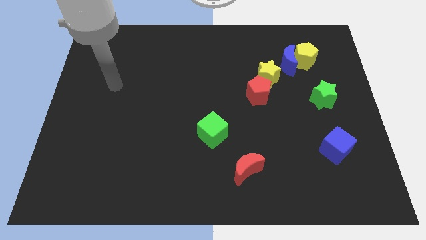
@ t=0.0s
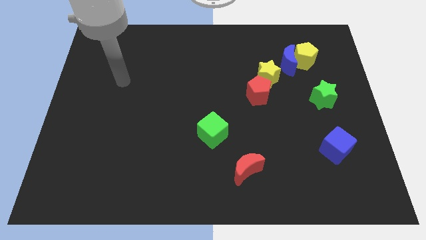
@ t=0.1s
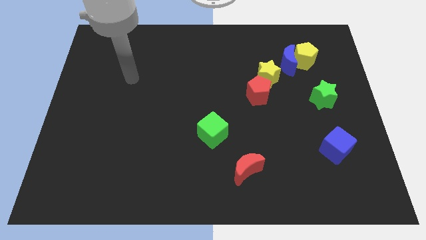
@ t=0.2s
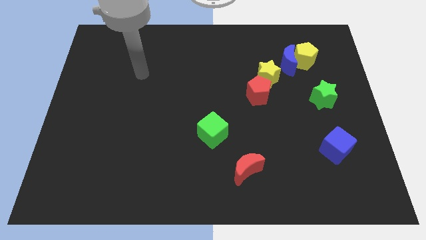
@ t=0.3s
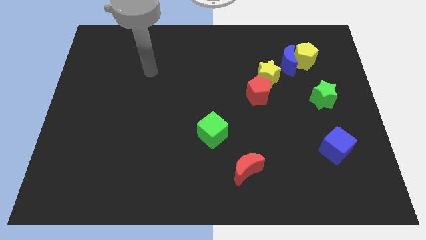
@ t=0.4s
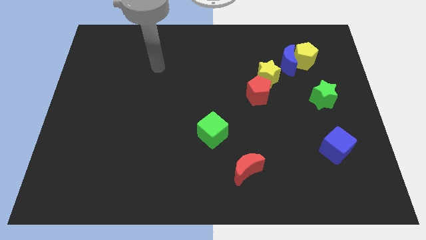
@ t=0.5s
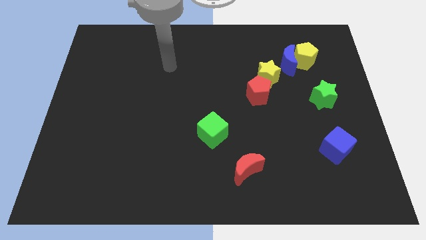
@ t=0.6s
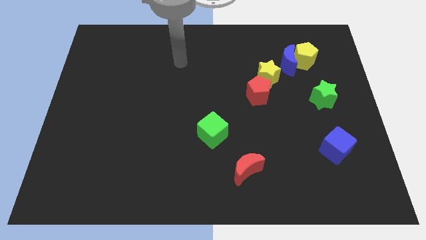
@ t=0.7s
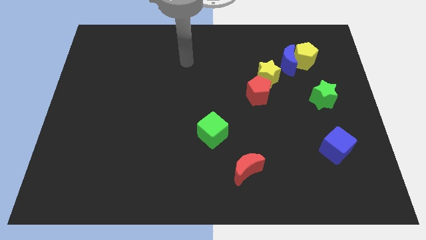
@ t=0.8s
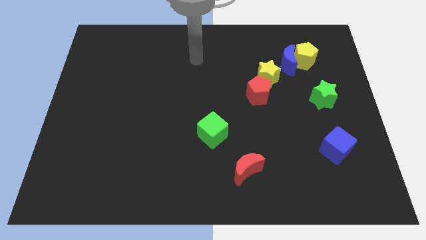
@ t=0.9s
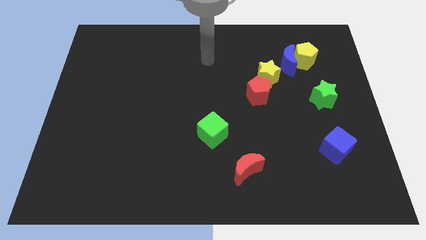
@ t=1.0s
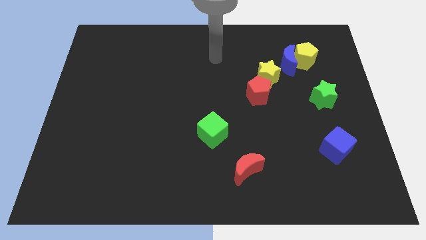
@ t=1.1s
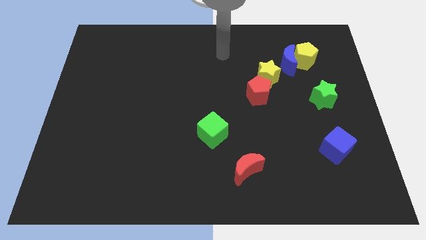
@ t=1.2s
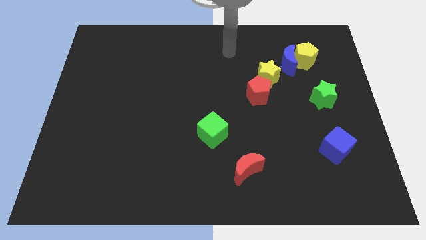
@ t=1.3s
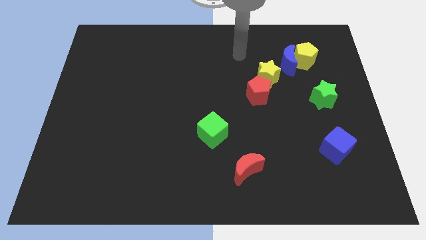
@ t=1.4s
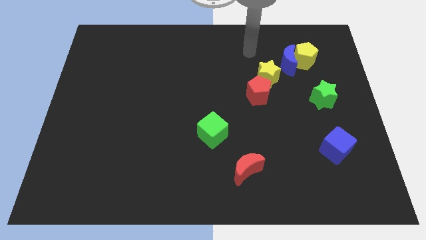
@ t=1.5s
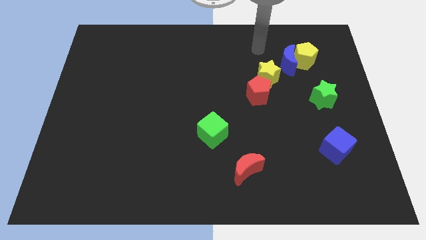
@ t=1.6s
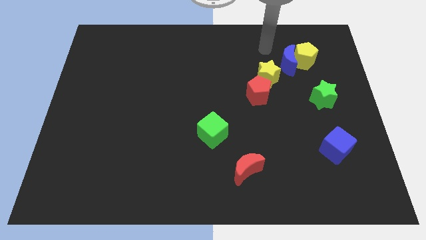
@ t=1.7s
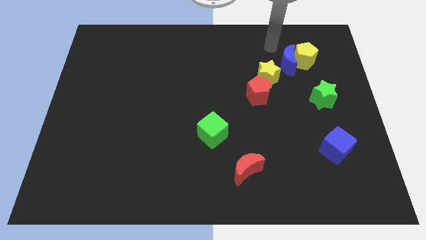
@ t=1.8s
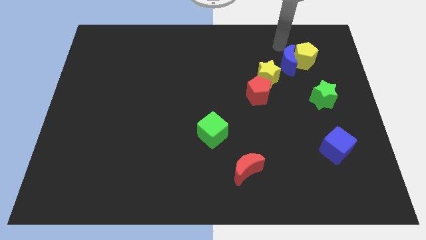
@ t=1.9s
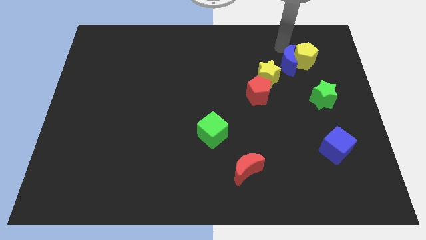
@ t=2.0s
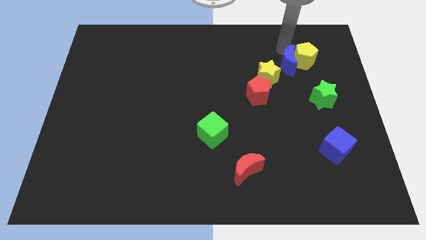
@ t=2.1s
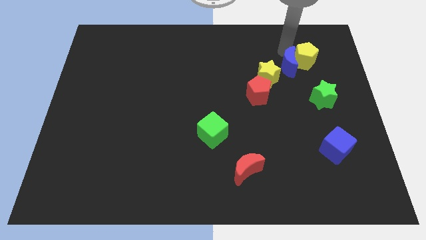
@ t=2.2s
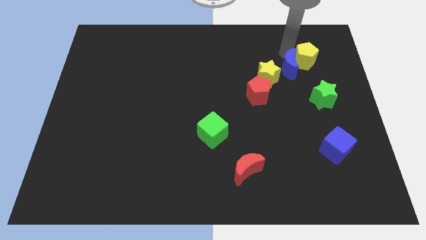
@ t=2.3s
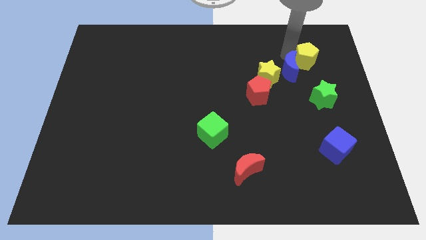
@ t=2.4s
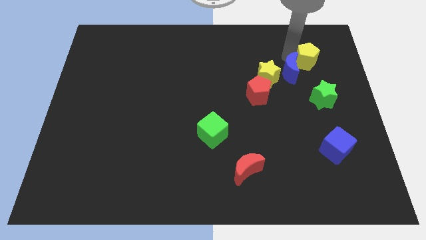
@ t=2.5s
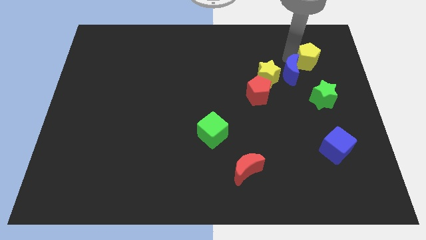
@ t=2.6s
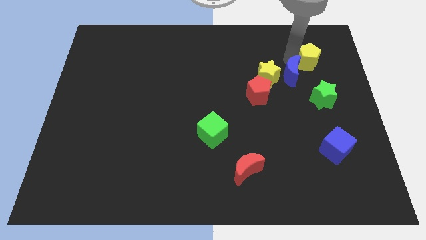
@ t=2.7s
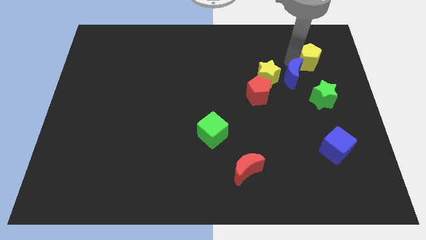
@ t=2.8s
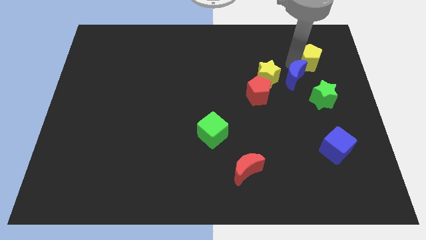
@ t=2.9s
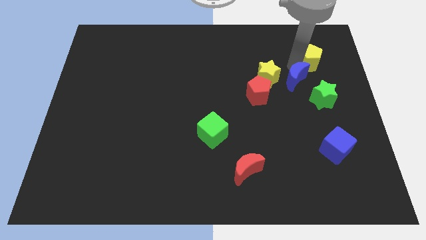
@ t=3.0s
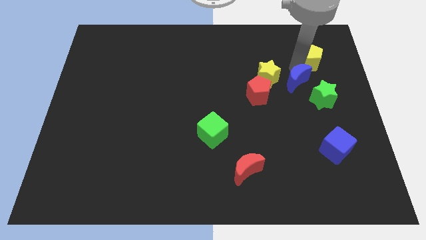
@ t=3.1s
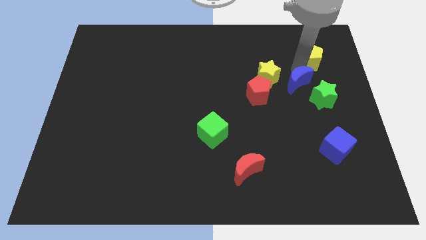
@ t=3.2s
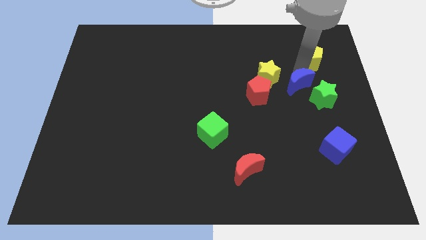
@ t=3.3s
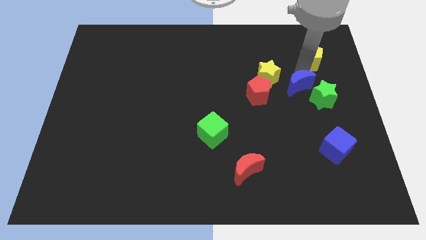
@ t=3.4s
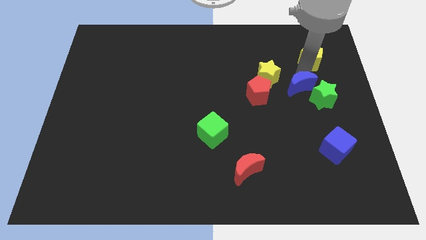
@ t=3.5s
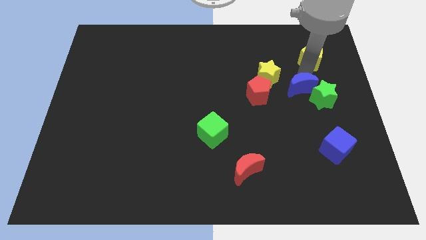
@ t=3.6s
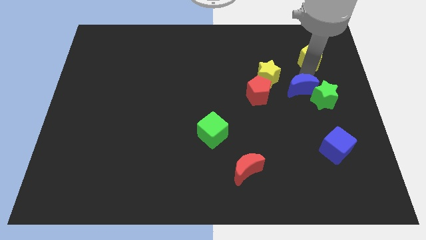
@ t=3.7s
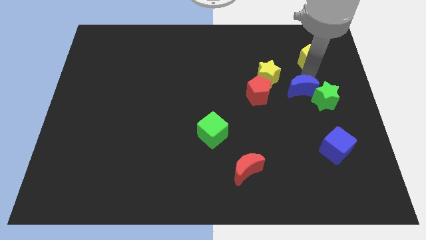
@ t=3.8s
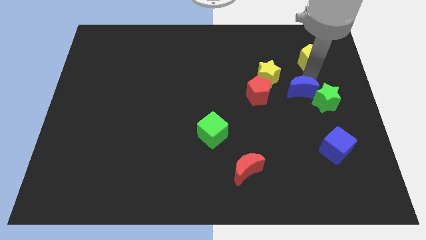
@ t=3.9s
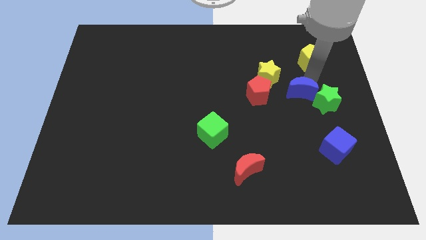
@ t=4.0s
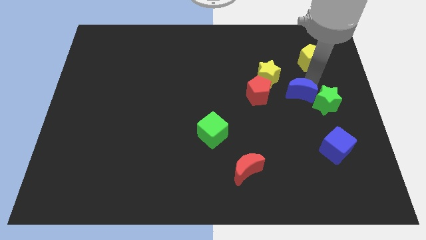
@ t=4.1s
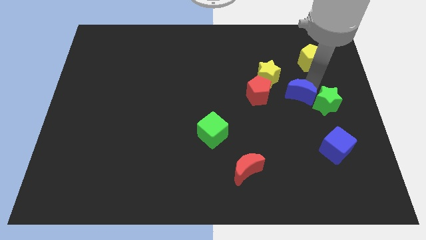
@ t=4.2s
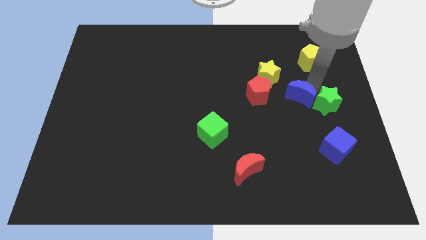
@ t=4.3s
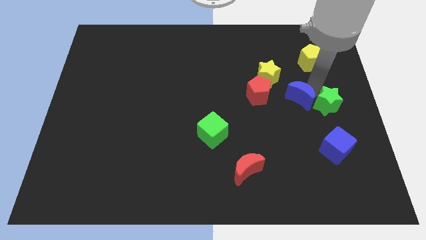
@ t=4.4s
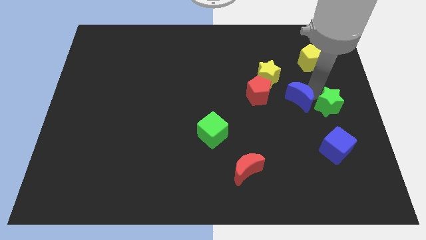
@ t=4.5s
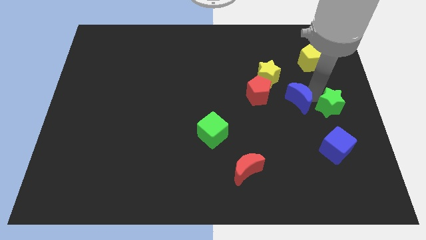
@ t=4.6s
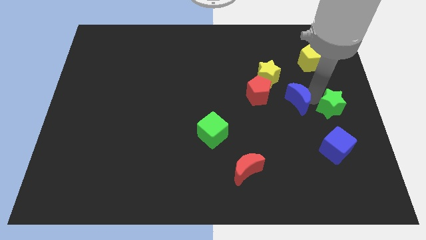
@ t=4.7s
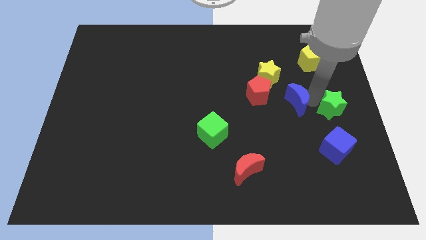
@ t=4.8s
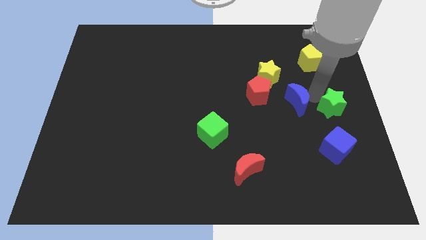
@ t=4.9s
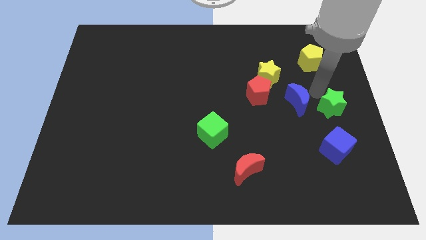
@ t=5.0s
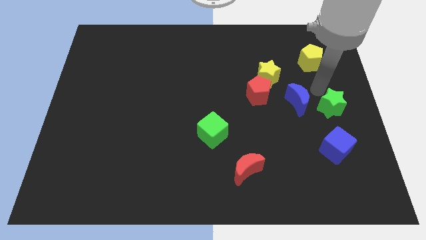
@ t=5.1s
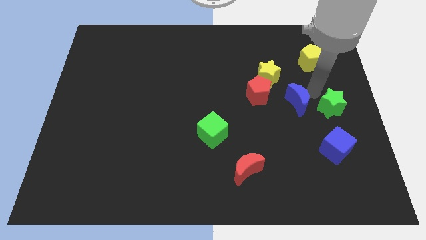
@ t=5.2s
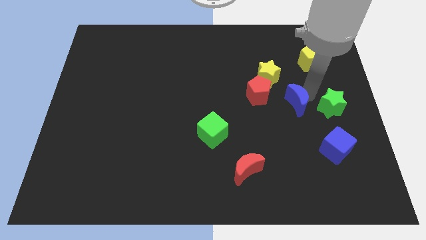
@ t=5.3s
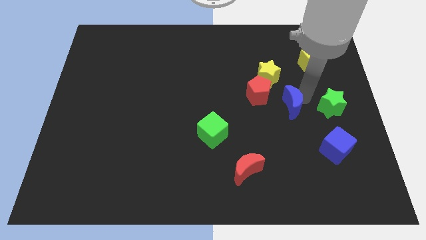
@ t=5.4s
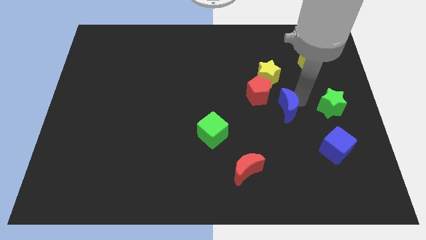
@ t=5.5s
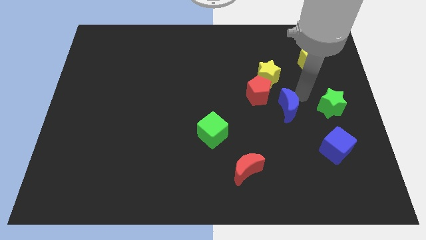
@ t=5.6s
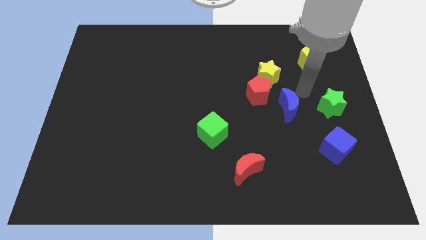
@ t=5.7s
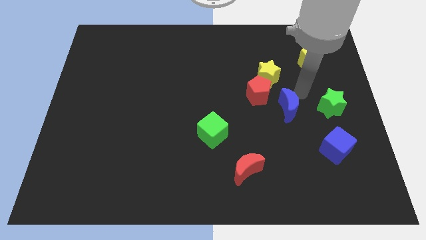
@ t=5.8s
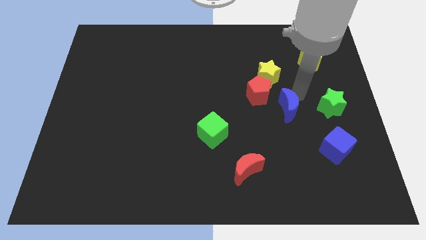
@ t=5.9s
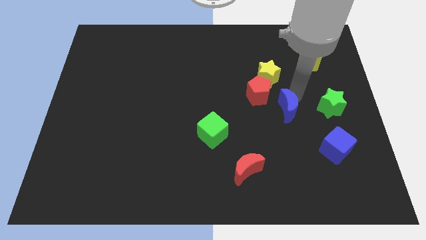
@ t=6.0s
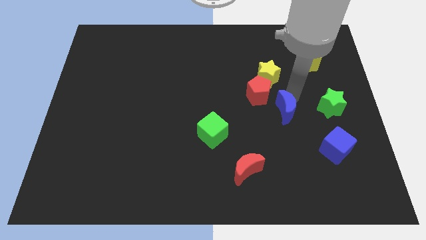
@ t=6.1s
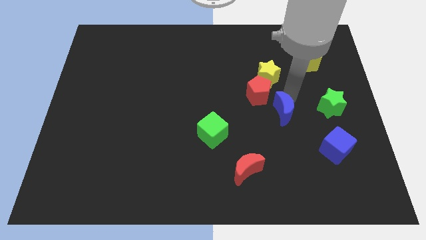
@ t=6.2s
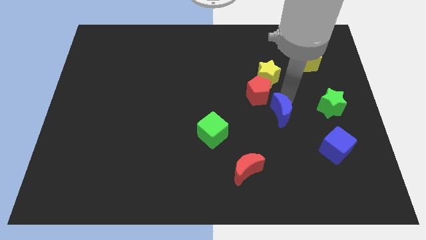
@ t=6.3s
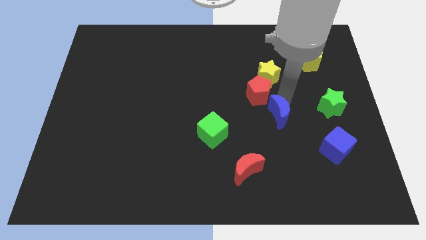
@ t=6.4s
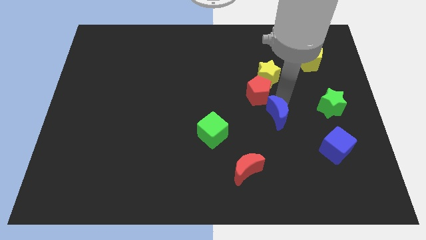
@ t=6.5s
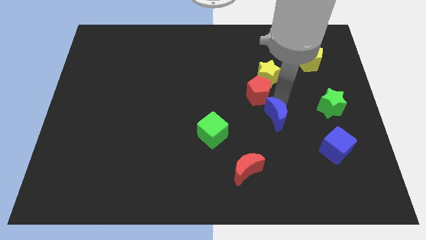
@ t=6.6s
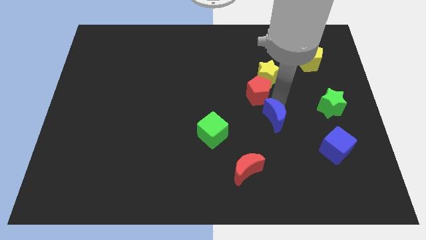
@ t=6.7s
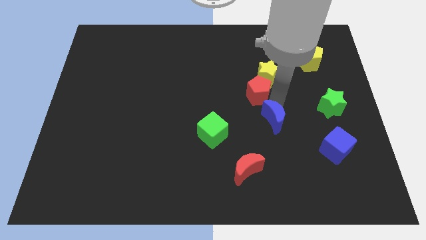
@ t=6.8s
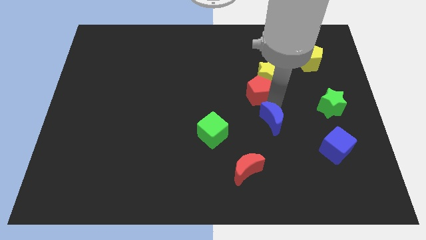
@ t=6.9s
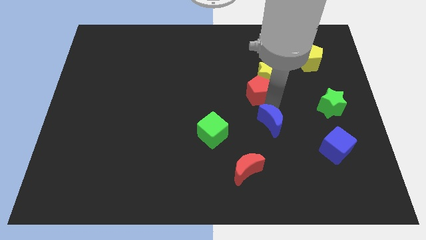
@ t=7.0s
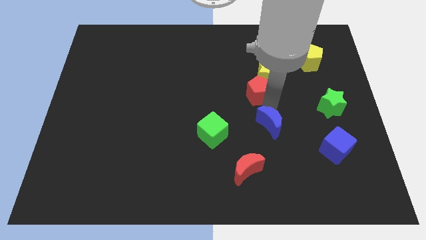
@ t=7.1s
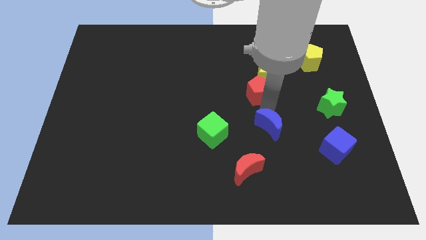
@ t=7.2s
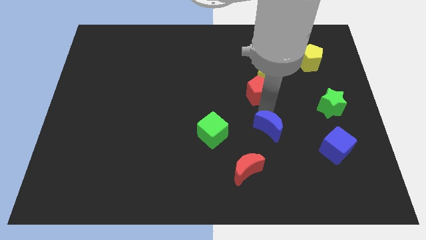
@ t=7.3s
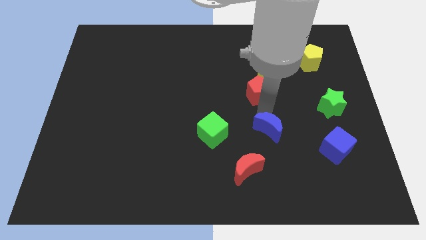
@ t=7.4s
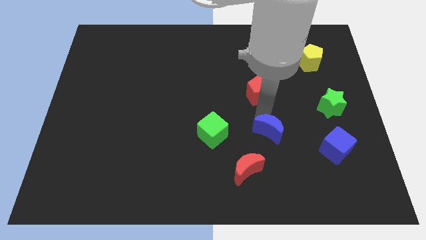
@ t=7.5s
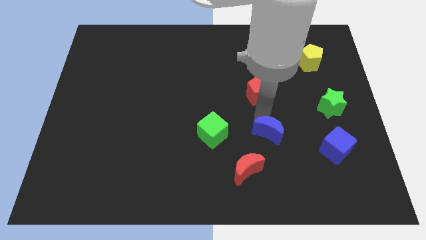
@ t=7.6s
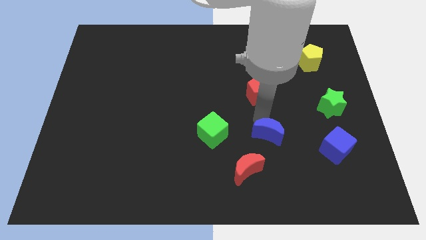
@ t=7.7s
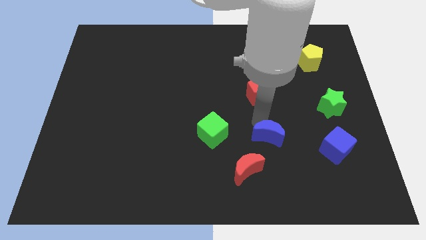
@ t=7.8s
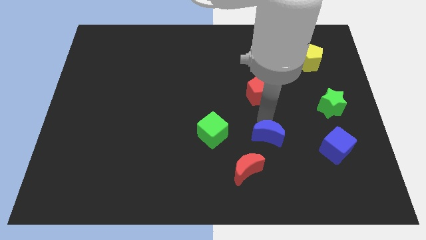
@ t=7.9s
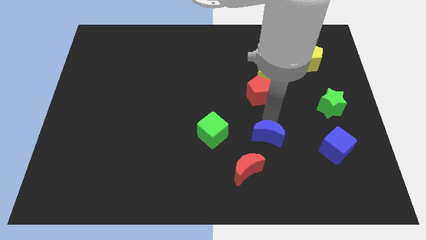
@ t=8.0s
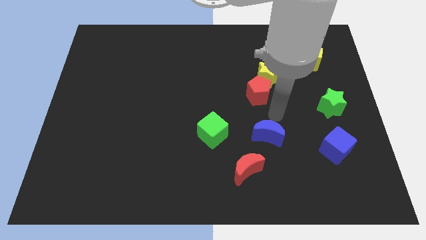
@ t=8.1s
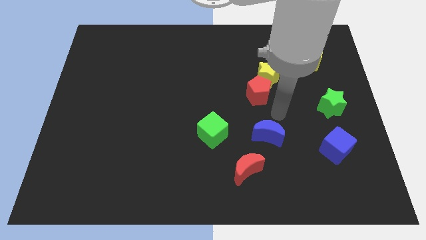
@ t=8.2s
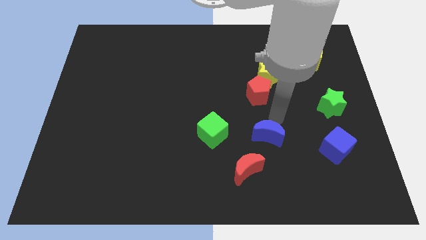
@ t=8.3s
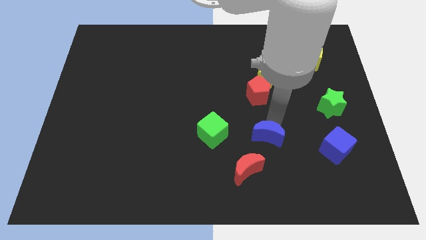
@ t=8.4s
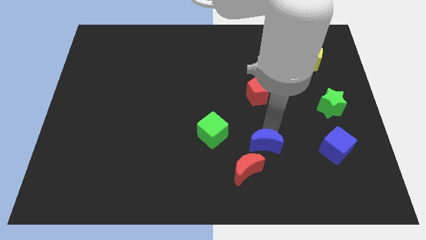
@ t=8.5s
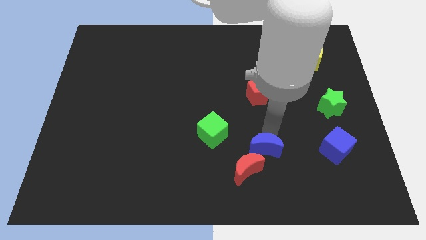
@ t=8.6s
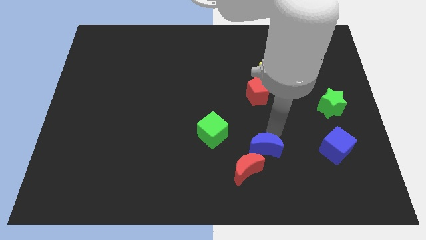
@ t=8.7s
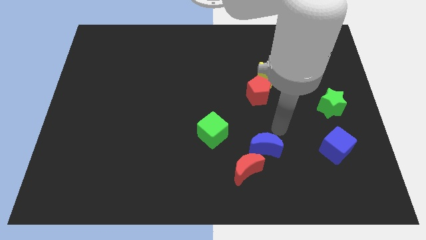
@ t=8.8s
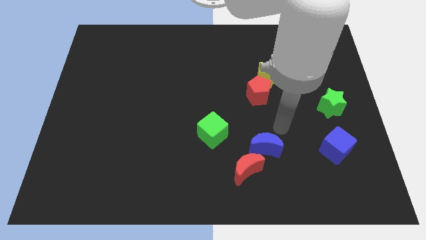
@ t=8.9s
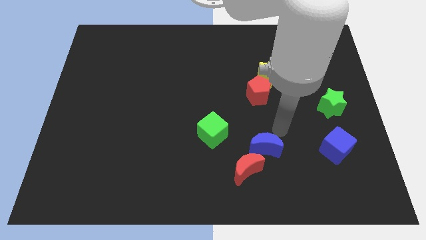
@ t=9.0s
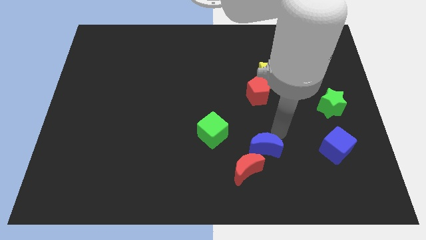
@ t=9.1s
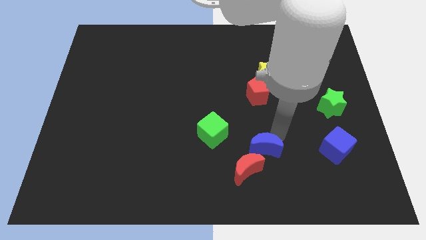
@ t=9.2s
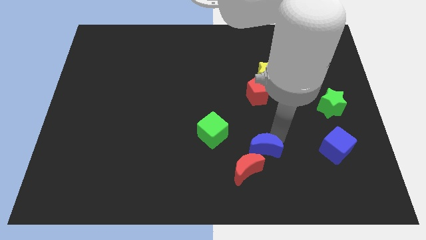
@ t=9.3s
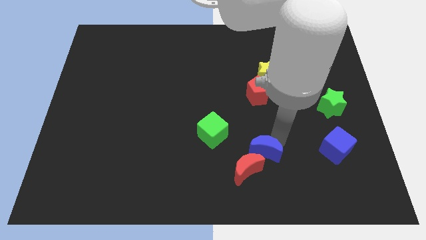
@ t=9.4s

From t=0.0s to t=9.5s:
put the blue moon to the red moon
